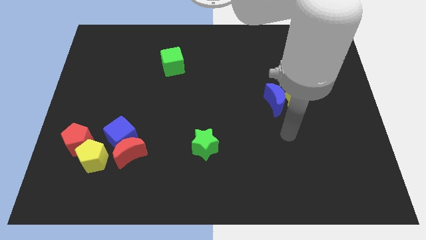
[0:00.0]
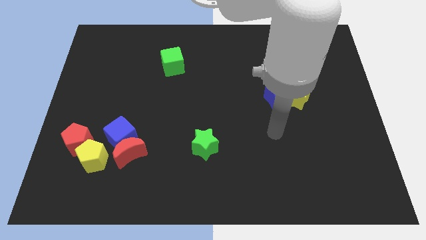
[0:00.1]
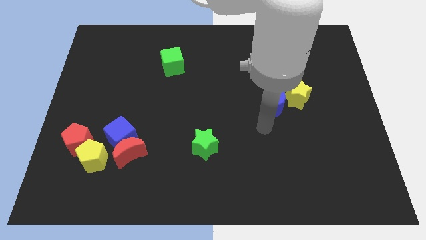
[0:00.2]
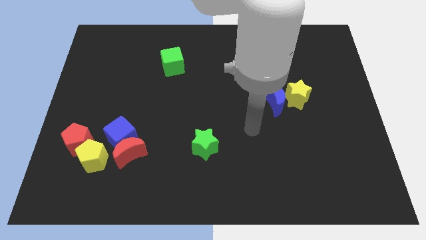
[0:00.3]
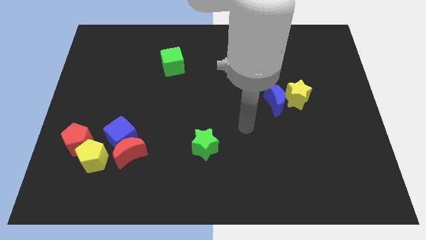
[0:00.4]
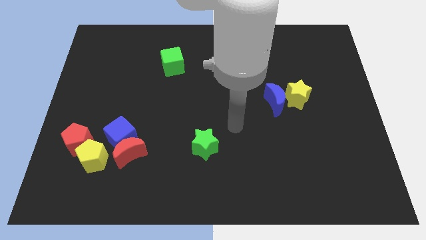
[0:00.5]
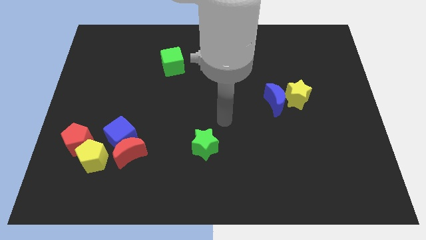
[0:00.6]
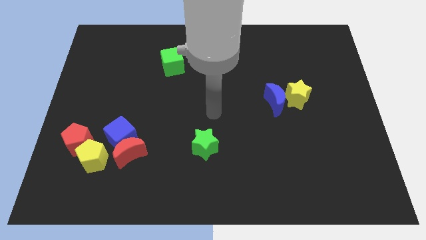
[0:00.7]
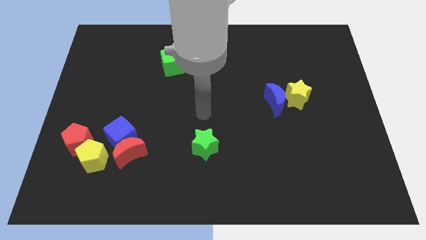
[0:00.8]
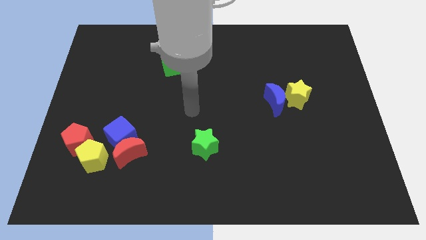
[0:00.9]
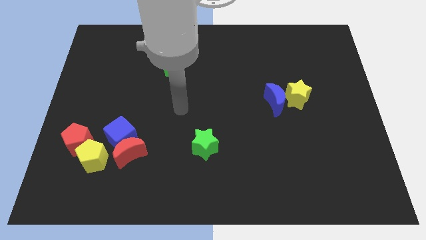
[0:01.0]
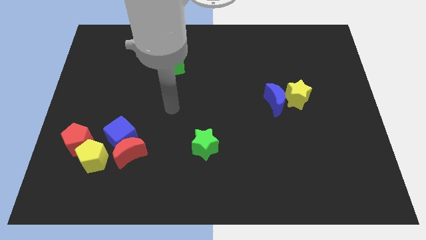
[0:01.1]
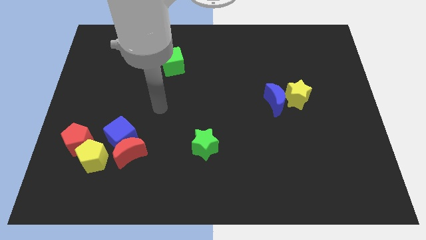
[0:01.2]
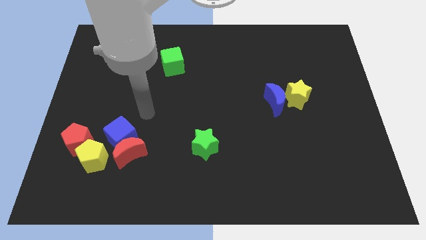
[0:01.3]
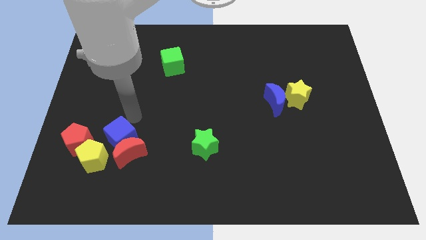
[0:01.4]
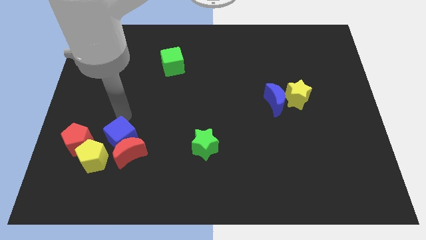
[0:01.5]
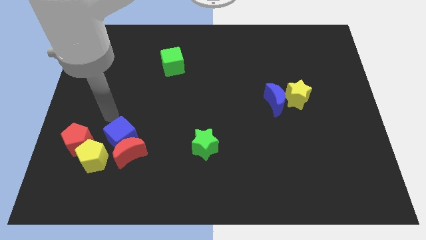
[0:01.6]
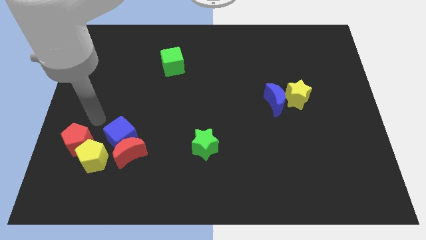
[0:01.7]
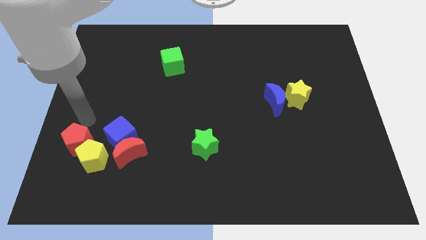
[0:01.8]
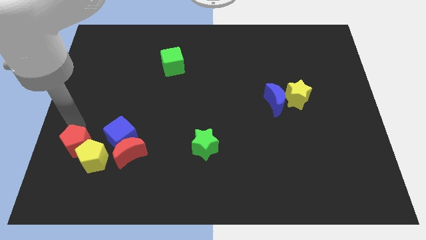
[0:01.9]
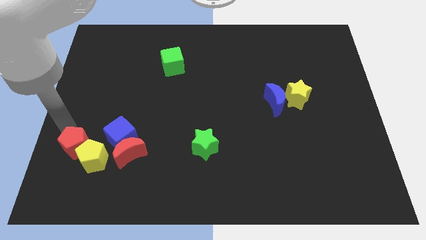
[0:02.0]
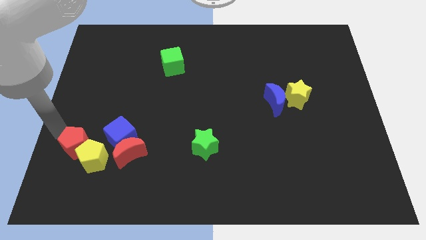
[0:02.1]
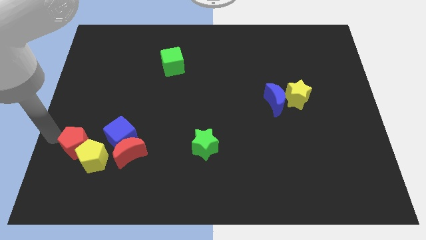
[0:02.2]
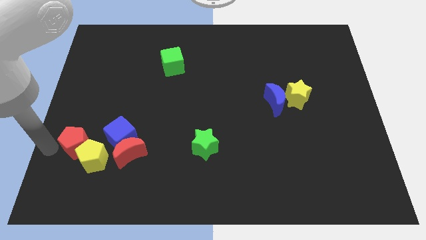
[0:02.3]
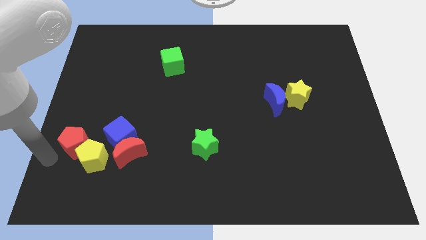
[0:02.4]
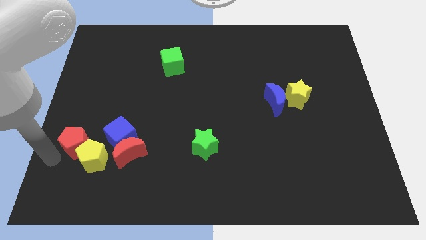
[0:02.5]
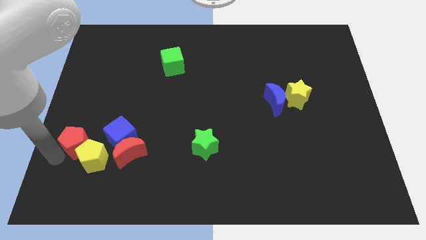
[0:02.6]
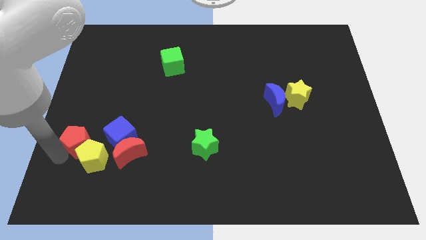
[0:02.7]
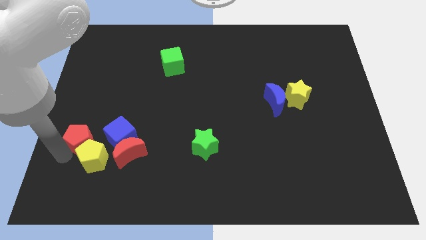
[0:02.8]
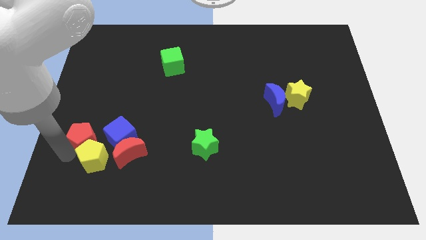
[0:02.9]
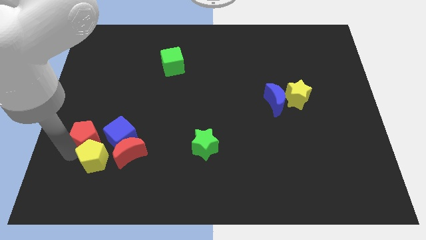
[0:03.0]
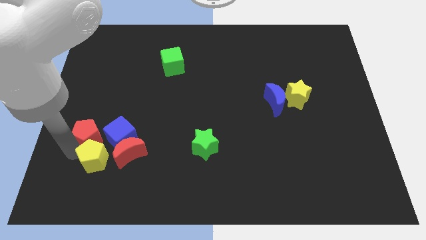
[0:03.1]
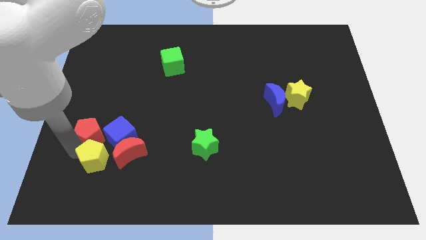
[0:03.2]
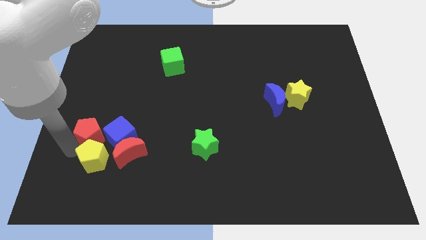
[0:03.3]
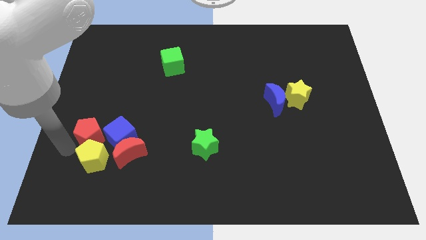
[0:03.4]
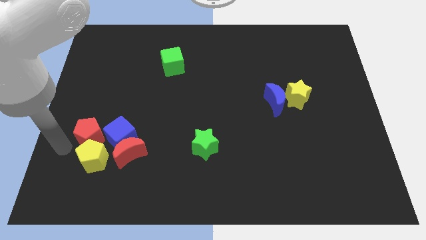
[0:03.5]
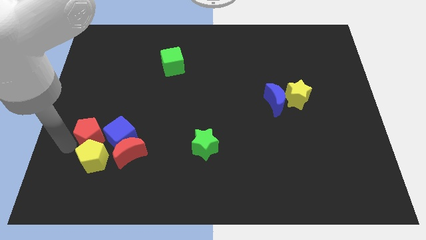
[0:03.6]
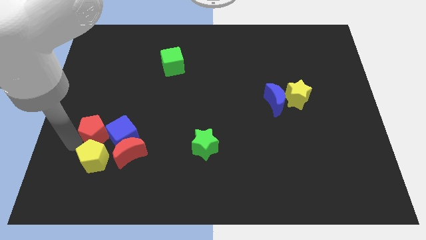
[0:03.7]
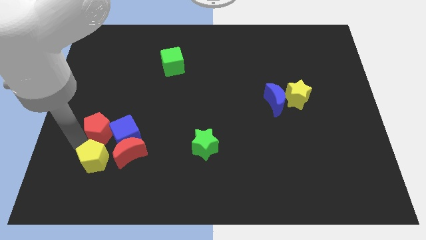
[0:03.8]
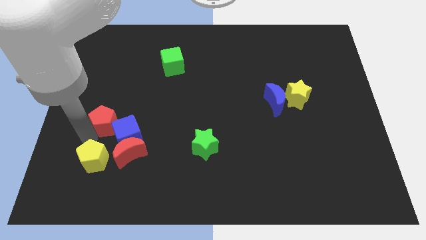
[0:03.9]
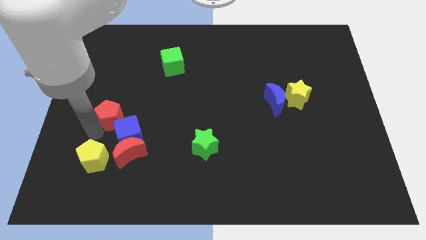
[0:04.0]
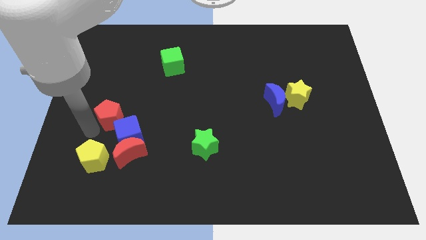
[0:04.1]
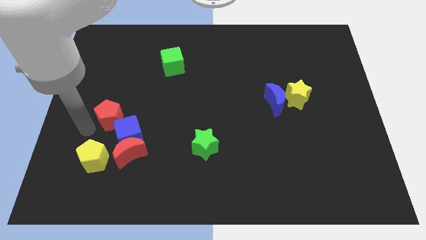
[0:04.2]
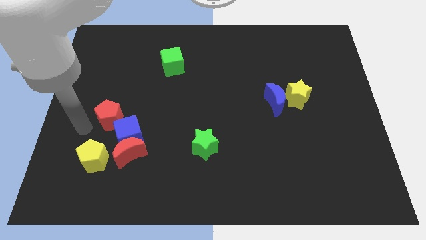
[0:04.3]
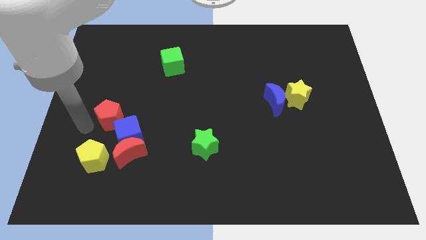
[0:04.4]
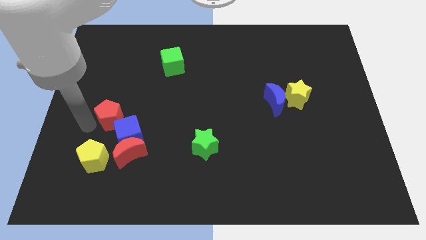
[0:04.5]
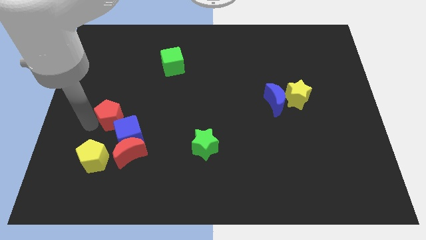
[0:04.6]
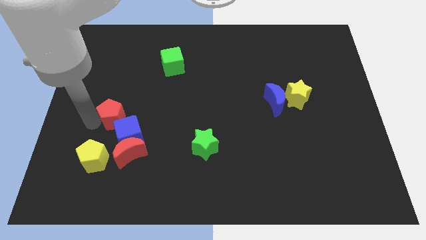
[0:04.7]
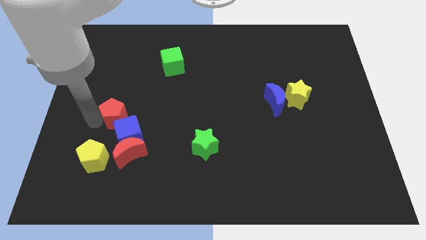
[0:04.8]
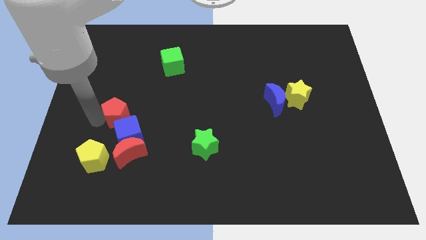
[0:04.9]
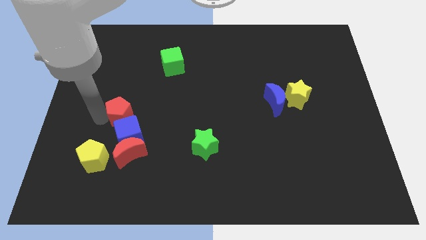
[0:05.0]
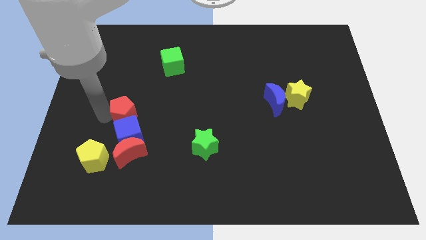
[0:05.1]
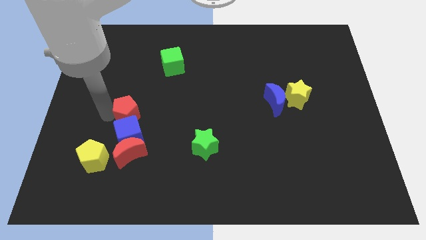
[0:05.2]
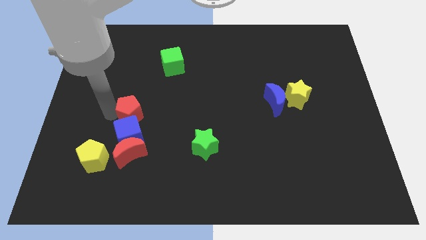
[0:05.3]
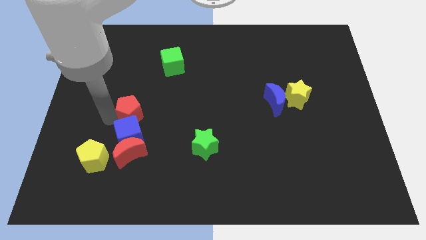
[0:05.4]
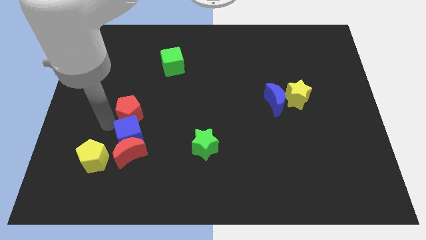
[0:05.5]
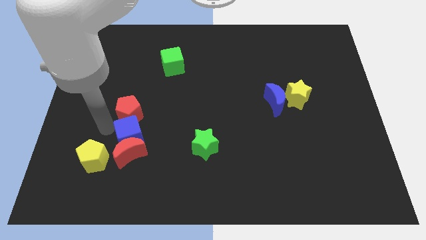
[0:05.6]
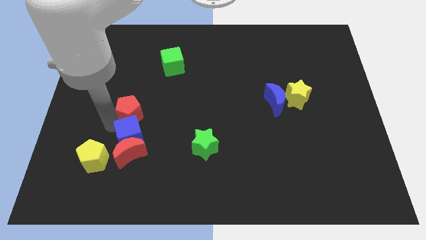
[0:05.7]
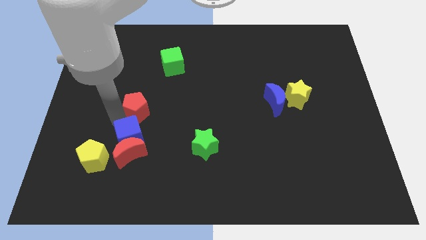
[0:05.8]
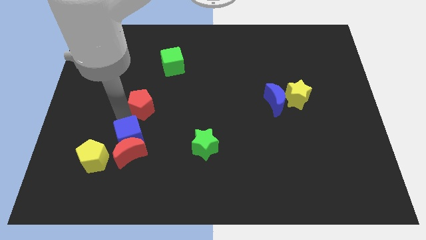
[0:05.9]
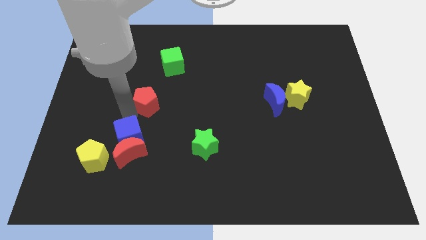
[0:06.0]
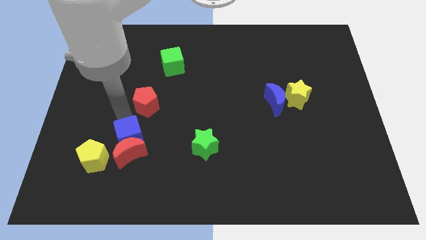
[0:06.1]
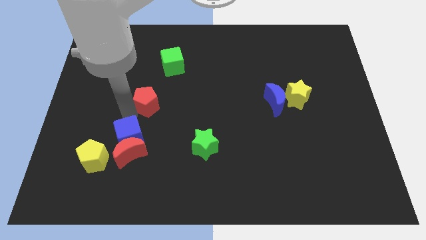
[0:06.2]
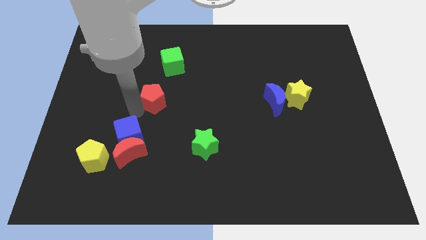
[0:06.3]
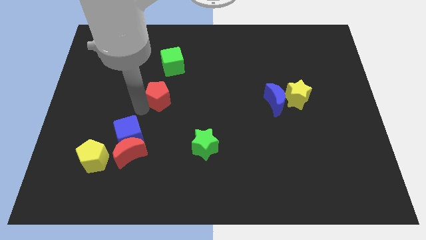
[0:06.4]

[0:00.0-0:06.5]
push the red pentagon diagonally up and to the right

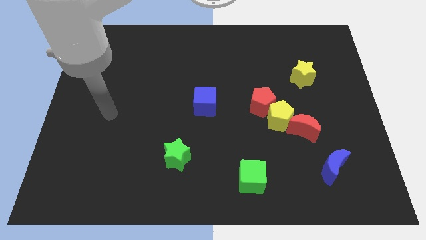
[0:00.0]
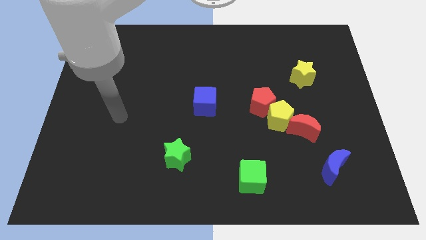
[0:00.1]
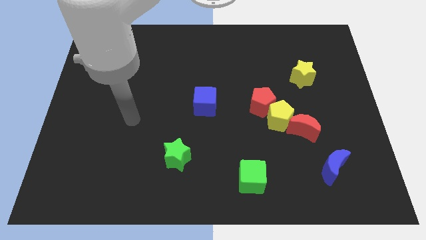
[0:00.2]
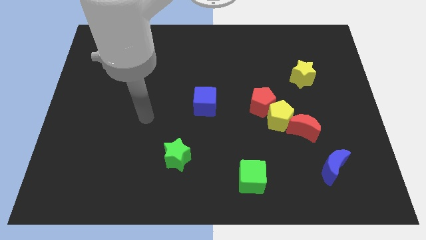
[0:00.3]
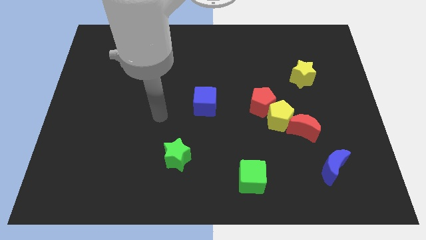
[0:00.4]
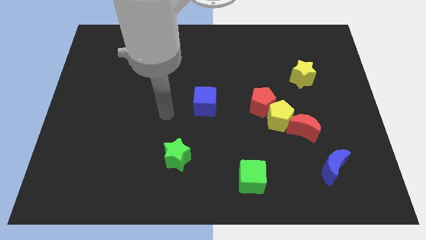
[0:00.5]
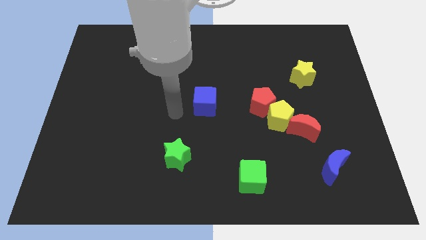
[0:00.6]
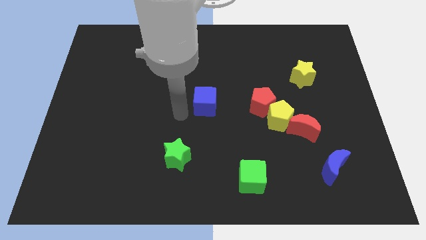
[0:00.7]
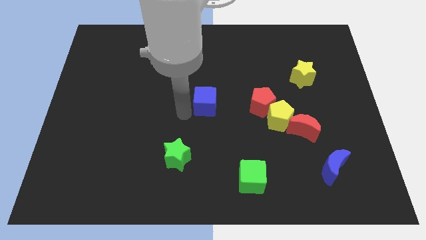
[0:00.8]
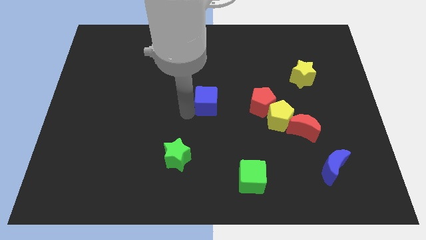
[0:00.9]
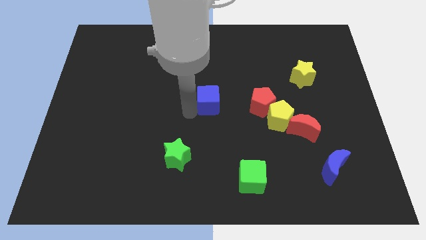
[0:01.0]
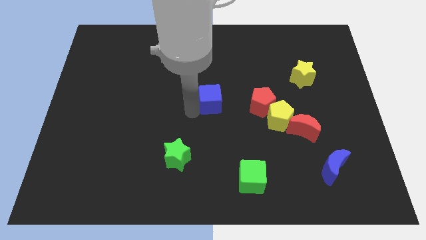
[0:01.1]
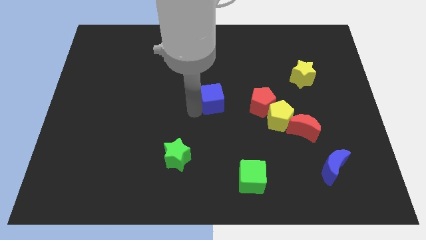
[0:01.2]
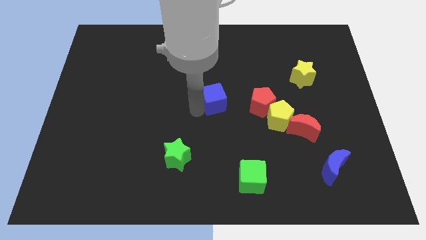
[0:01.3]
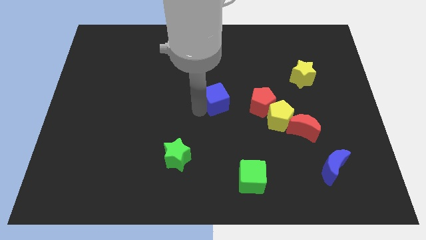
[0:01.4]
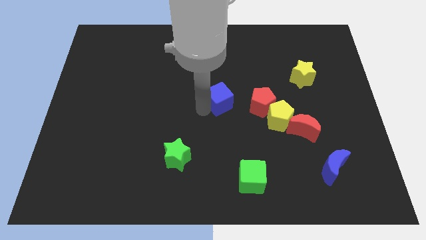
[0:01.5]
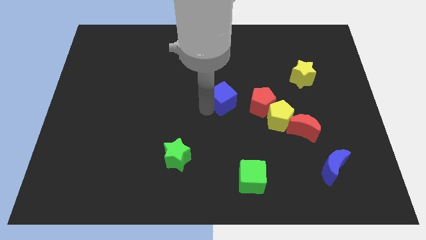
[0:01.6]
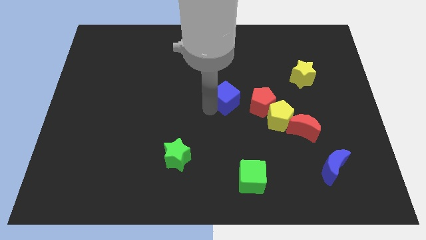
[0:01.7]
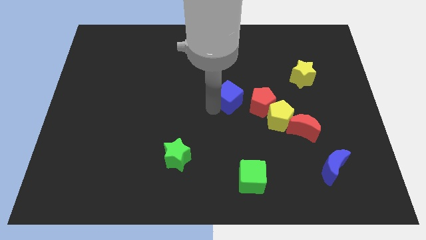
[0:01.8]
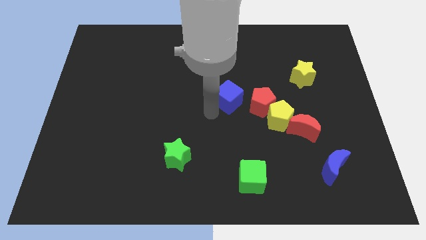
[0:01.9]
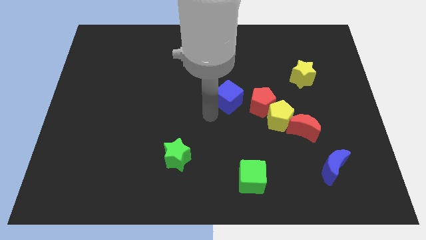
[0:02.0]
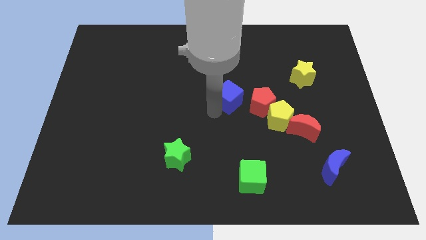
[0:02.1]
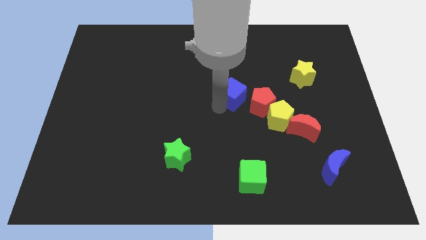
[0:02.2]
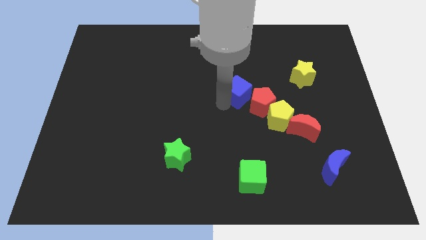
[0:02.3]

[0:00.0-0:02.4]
push the blue cube up and then right a little
